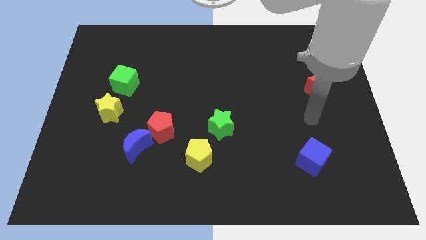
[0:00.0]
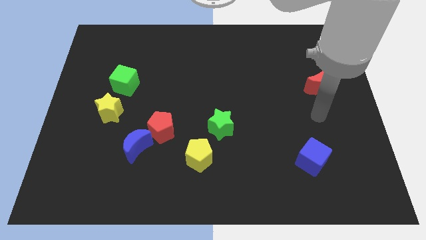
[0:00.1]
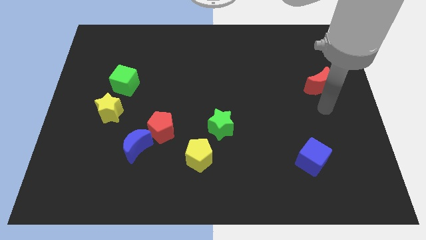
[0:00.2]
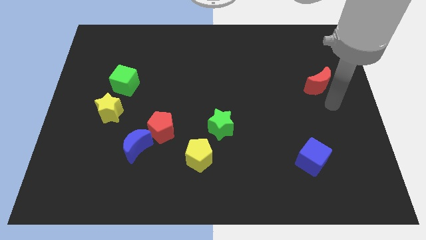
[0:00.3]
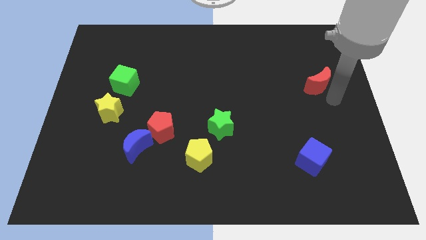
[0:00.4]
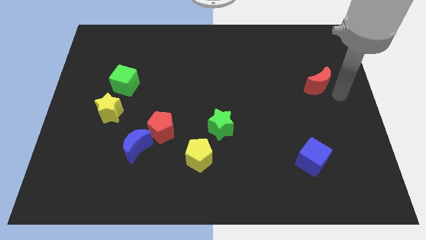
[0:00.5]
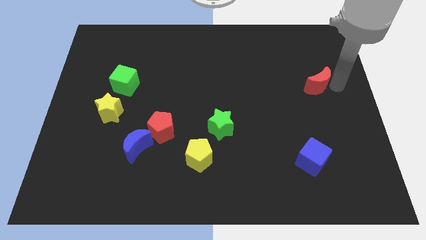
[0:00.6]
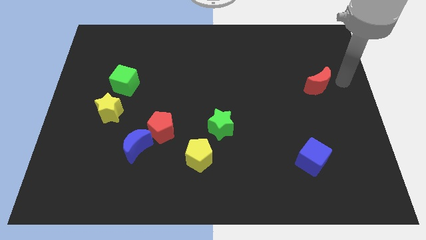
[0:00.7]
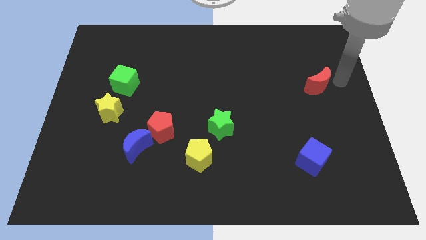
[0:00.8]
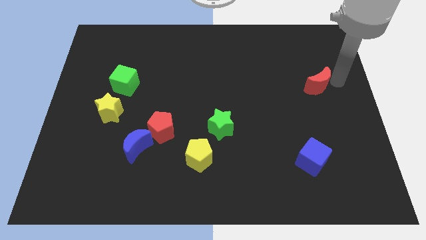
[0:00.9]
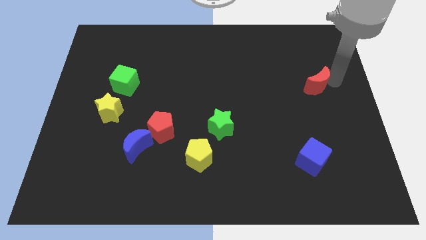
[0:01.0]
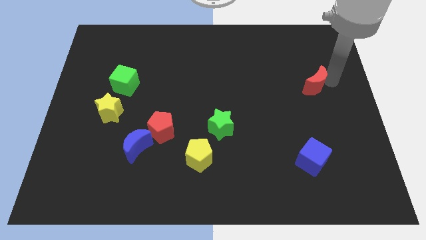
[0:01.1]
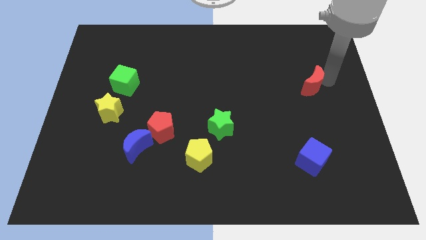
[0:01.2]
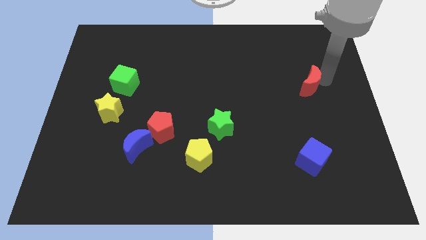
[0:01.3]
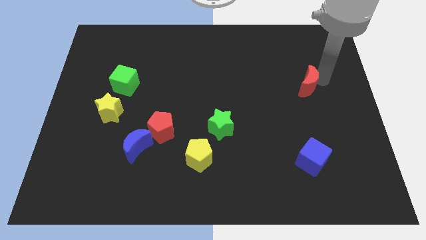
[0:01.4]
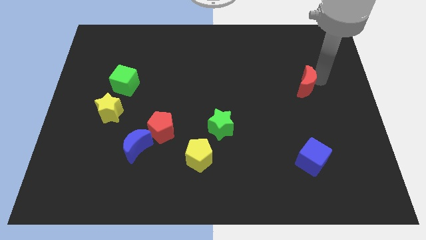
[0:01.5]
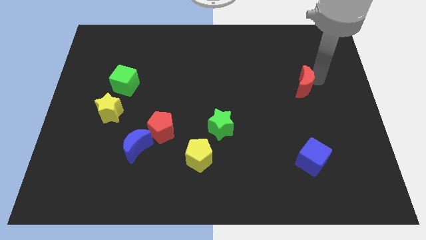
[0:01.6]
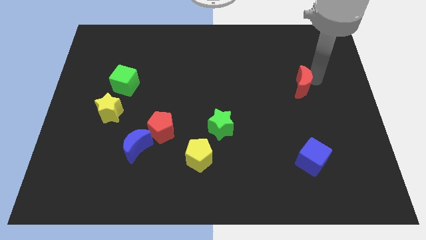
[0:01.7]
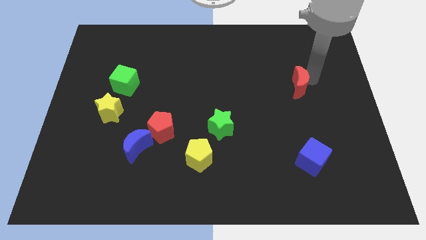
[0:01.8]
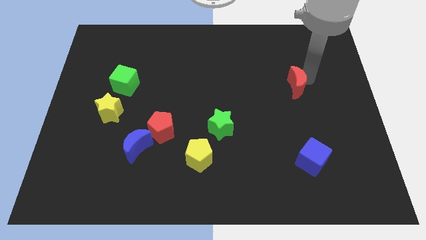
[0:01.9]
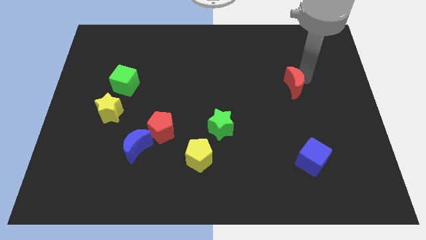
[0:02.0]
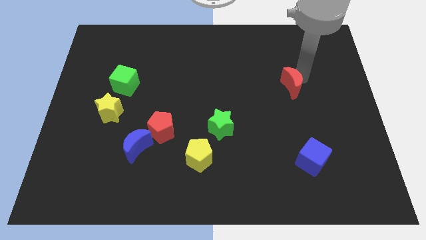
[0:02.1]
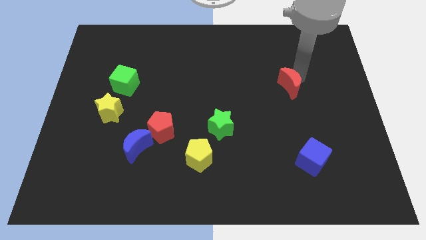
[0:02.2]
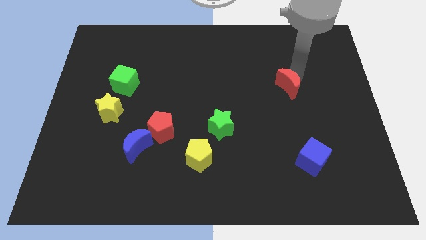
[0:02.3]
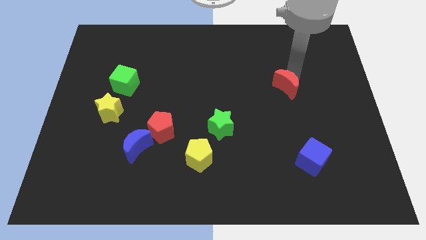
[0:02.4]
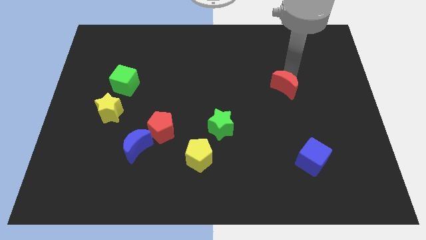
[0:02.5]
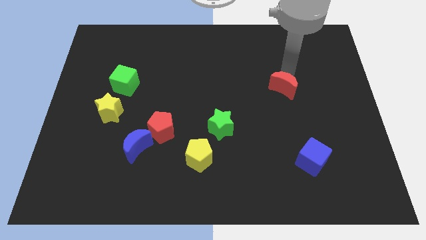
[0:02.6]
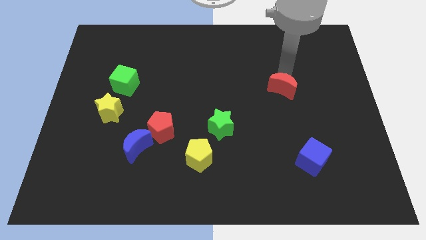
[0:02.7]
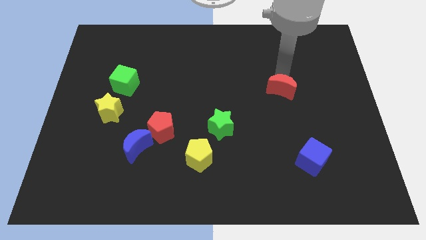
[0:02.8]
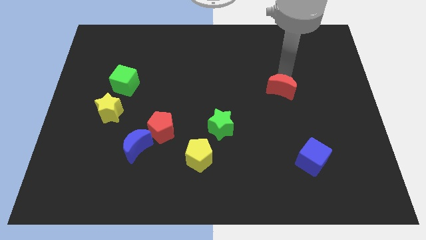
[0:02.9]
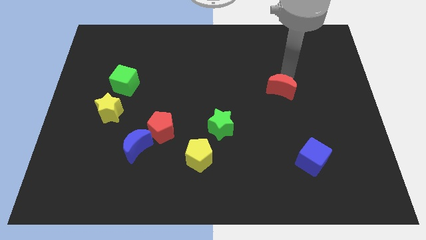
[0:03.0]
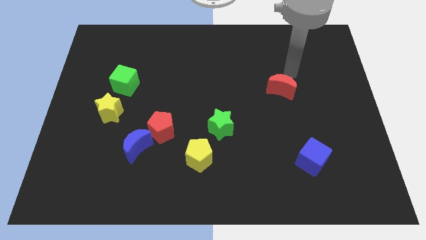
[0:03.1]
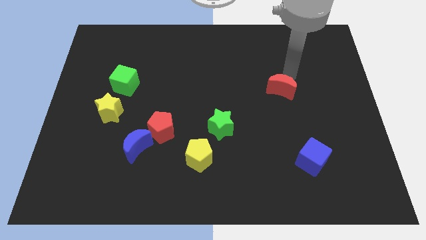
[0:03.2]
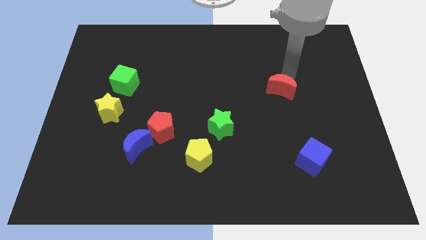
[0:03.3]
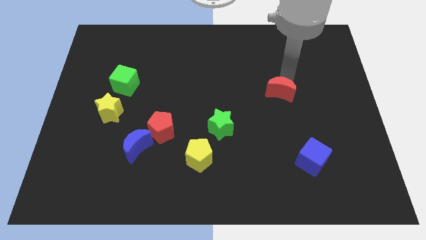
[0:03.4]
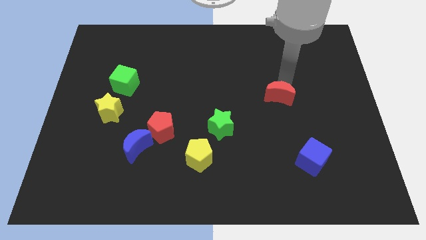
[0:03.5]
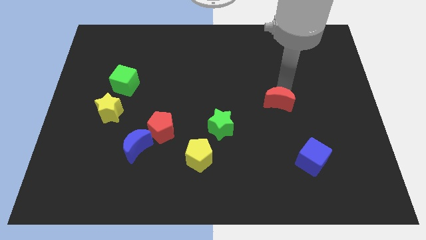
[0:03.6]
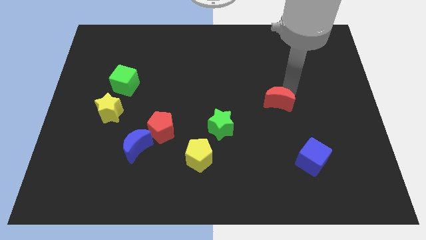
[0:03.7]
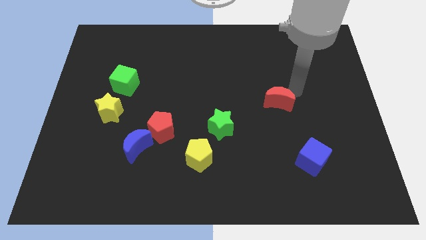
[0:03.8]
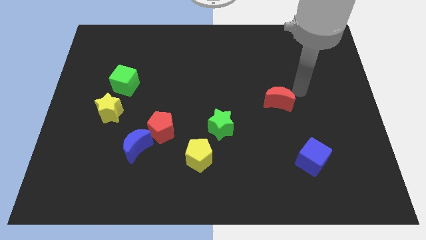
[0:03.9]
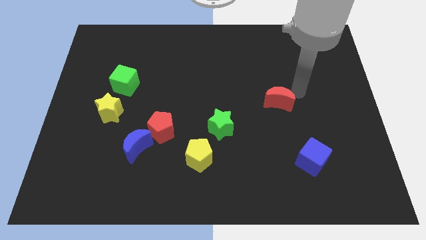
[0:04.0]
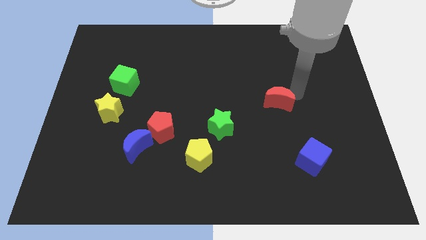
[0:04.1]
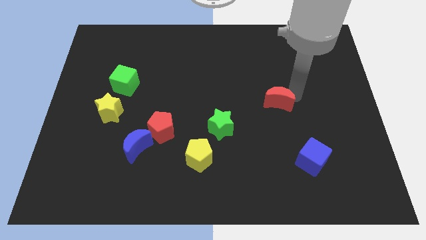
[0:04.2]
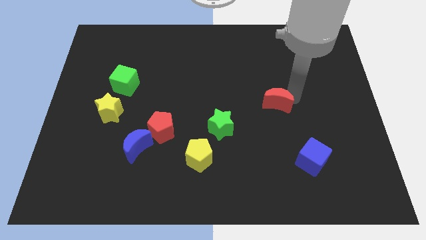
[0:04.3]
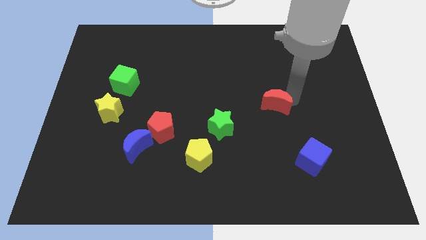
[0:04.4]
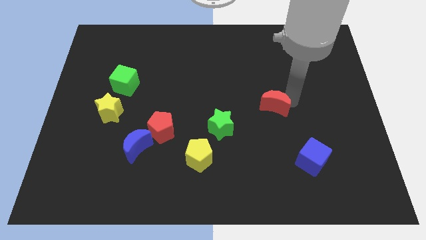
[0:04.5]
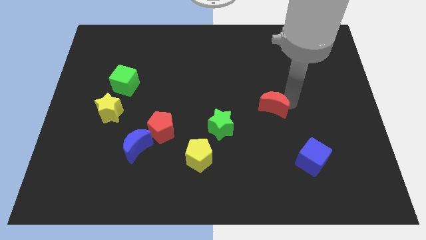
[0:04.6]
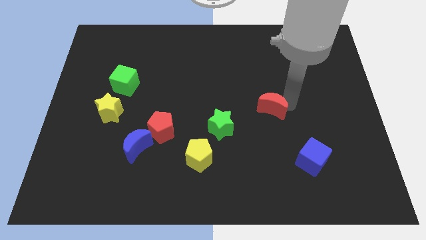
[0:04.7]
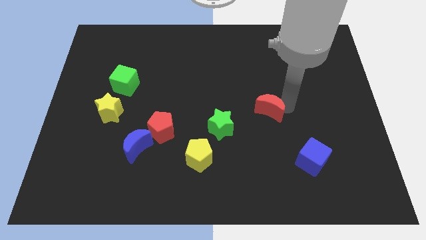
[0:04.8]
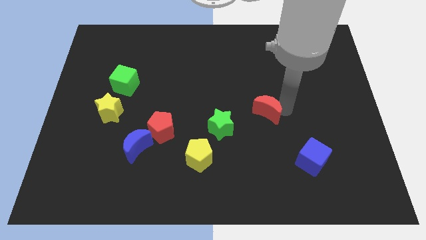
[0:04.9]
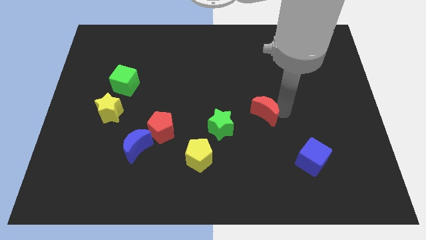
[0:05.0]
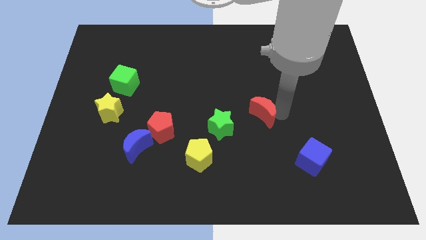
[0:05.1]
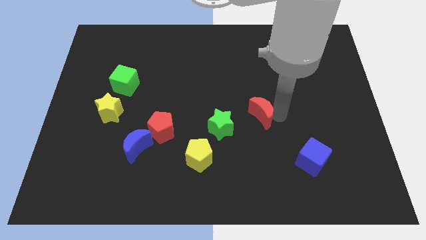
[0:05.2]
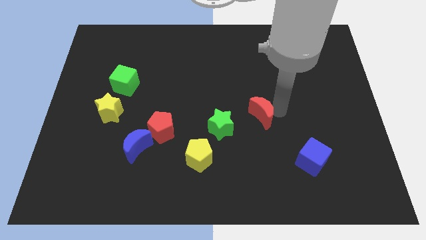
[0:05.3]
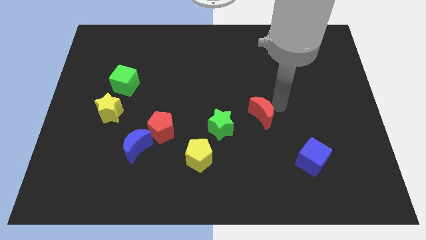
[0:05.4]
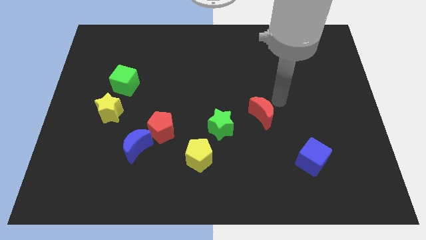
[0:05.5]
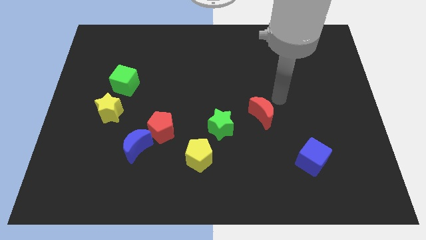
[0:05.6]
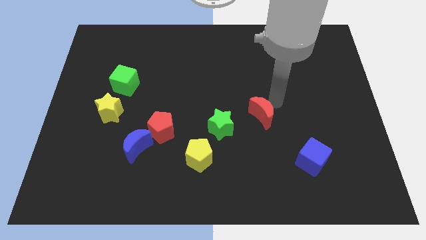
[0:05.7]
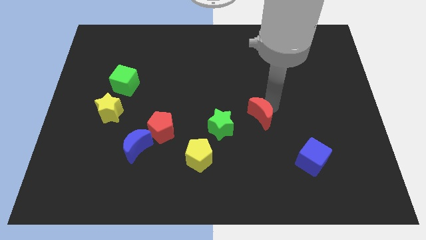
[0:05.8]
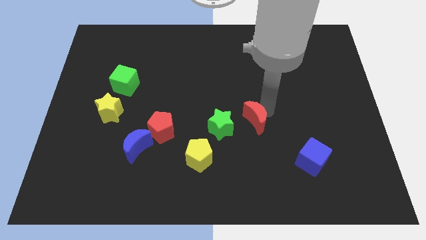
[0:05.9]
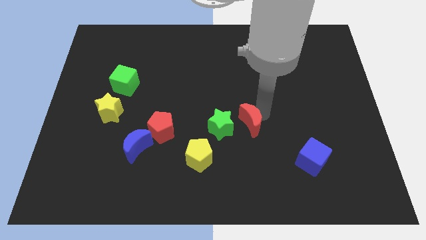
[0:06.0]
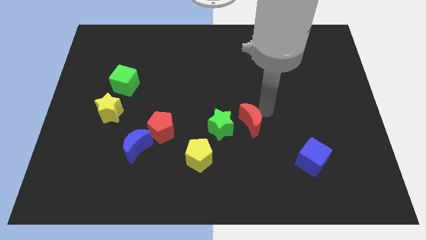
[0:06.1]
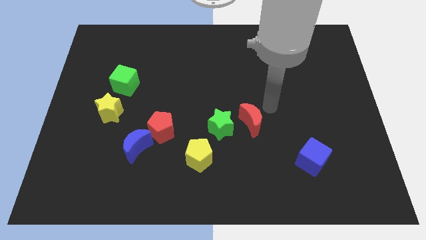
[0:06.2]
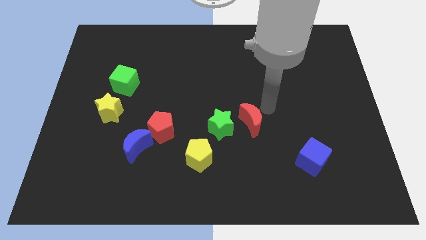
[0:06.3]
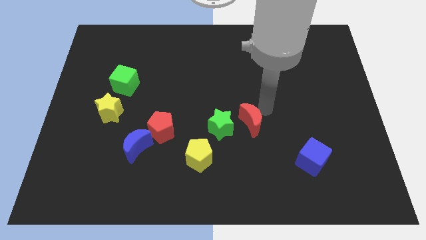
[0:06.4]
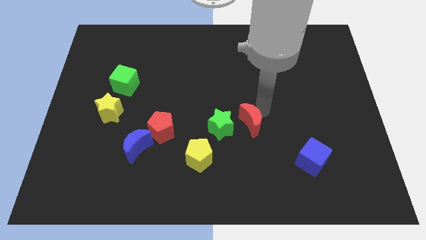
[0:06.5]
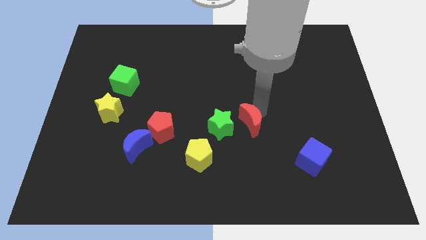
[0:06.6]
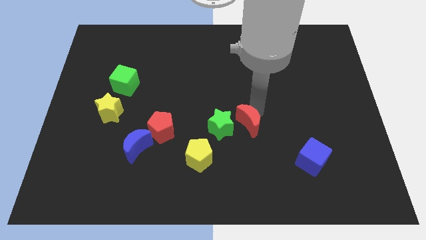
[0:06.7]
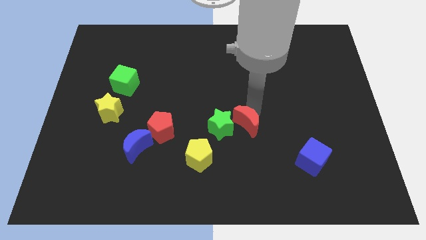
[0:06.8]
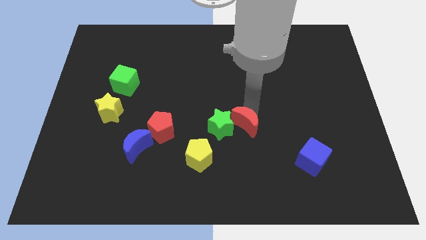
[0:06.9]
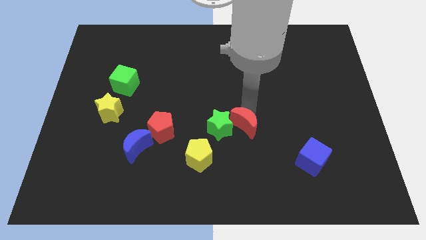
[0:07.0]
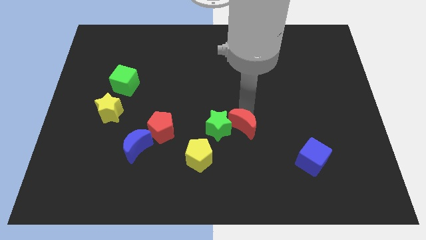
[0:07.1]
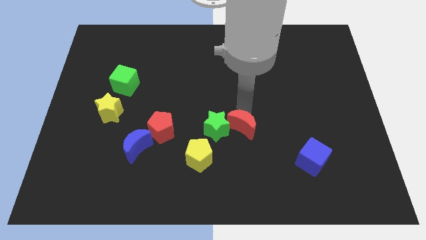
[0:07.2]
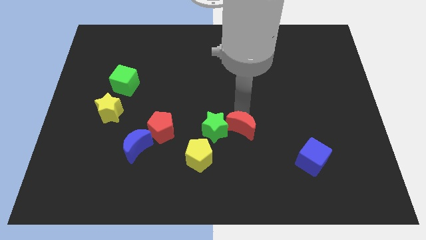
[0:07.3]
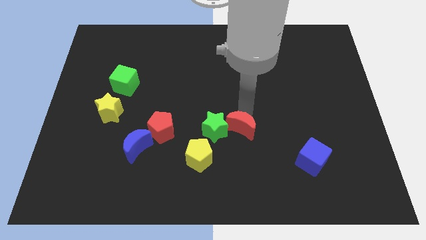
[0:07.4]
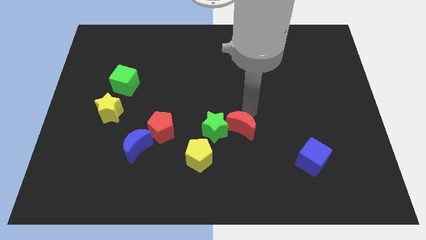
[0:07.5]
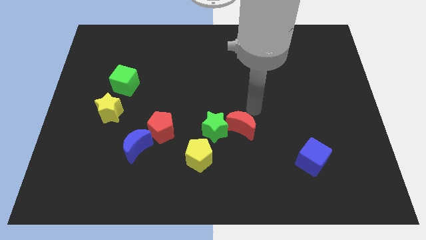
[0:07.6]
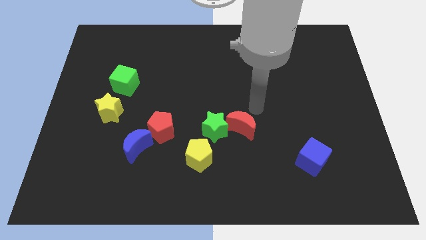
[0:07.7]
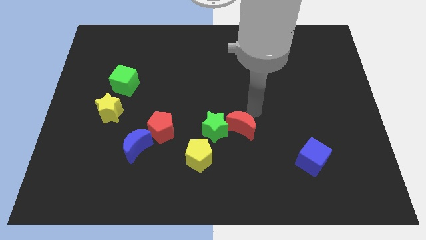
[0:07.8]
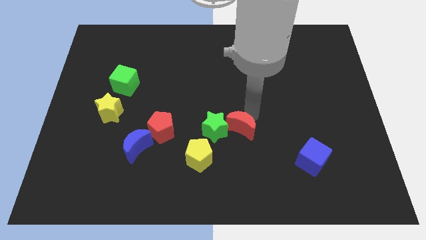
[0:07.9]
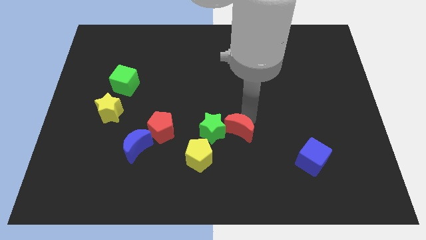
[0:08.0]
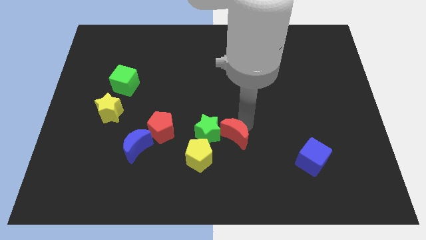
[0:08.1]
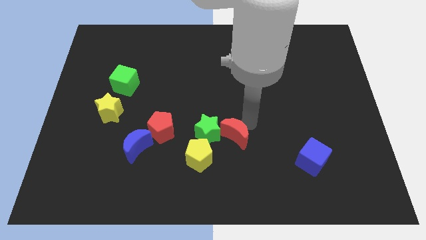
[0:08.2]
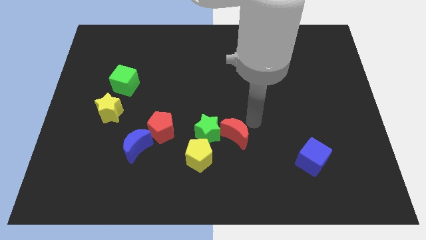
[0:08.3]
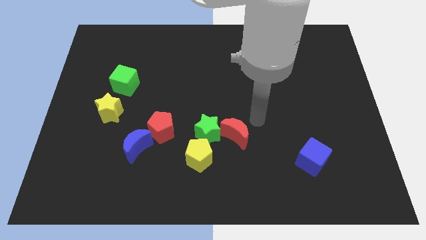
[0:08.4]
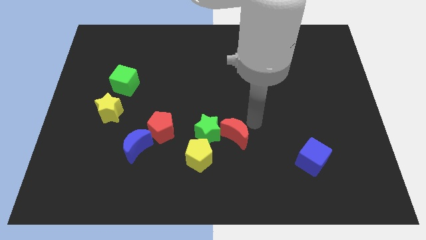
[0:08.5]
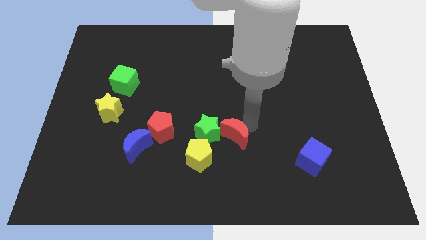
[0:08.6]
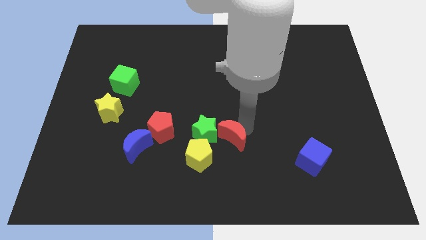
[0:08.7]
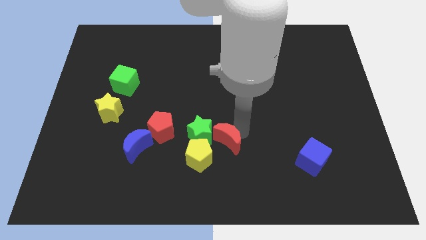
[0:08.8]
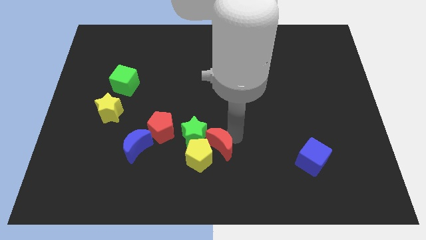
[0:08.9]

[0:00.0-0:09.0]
push the red moon next to the yellow pentagon
